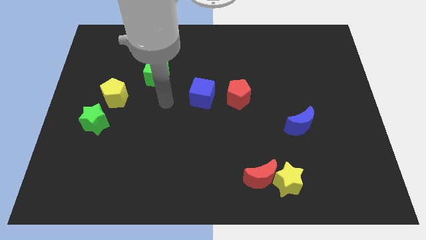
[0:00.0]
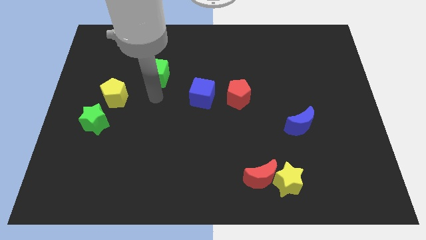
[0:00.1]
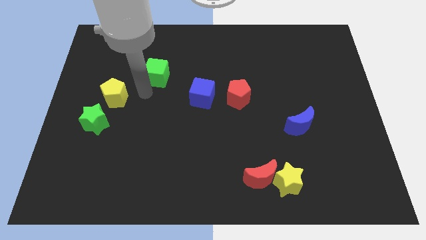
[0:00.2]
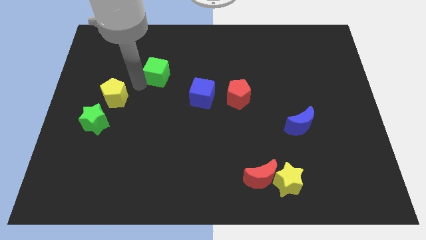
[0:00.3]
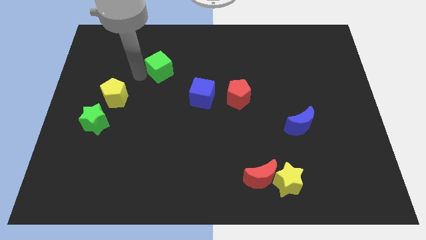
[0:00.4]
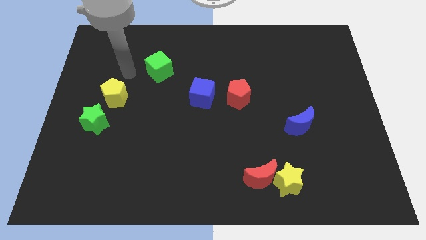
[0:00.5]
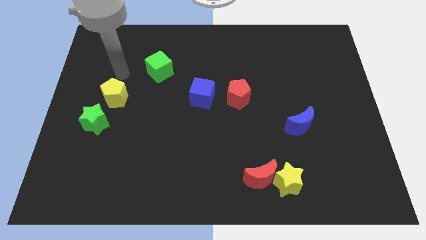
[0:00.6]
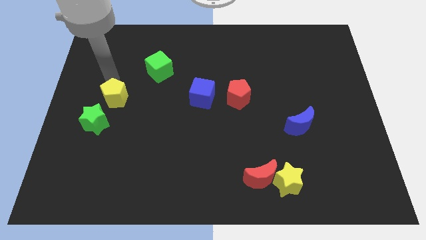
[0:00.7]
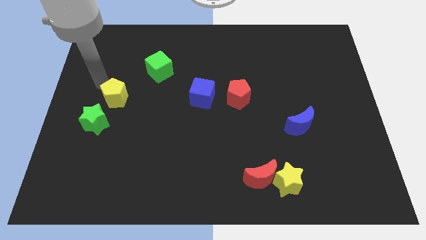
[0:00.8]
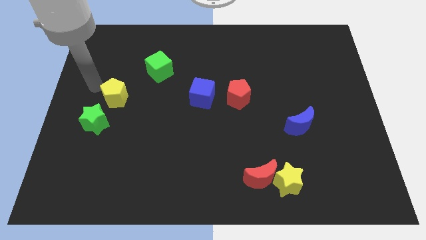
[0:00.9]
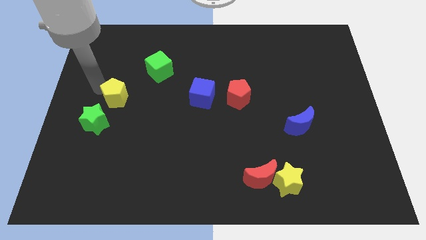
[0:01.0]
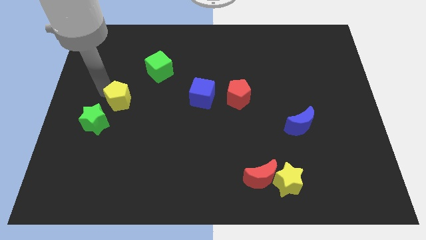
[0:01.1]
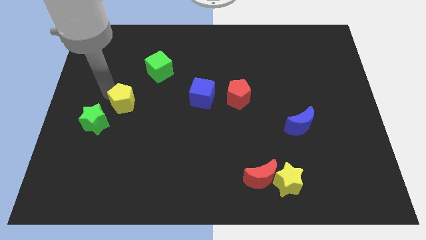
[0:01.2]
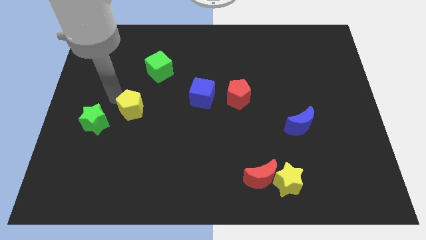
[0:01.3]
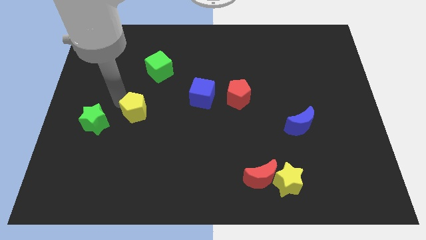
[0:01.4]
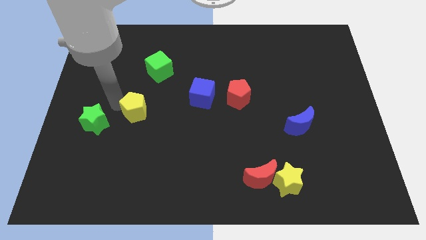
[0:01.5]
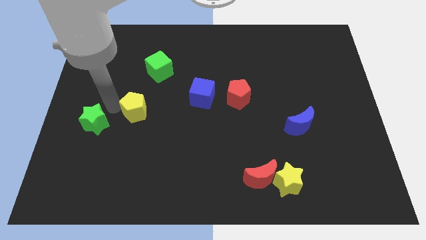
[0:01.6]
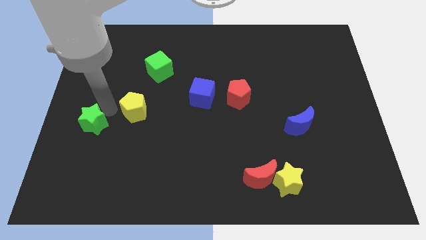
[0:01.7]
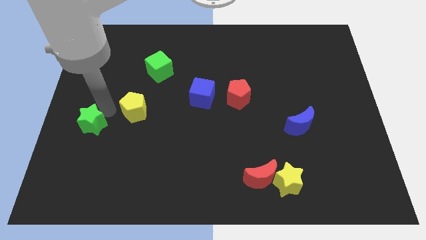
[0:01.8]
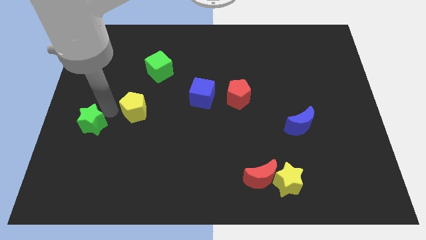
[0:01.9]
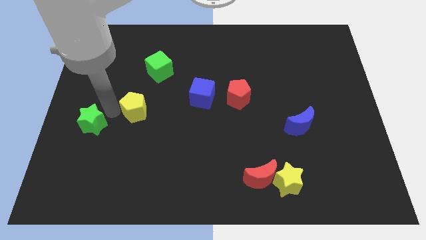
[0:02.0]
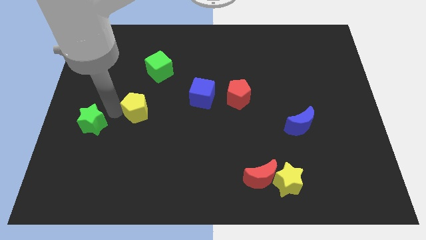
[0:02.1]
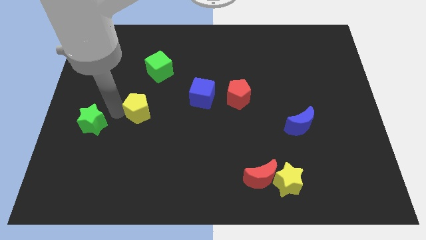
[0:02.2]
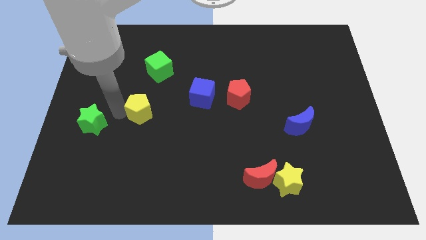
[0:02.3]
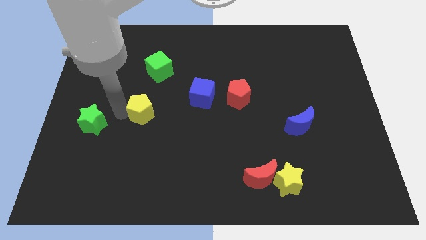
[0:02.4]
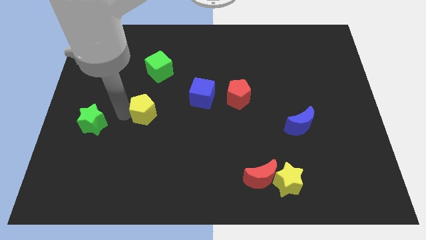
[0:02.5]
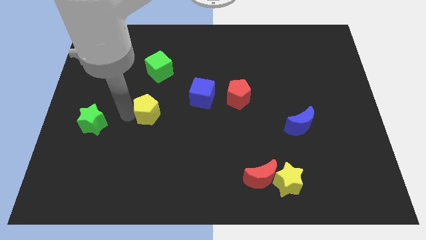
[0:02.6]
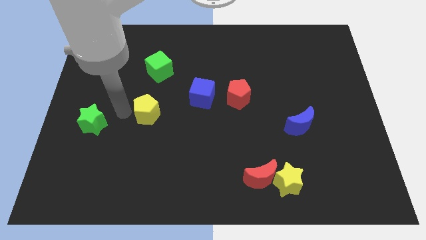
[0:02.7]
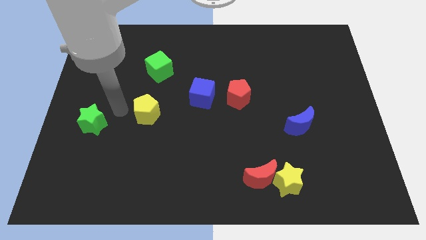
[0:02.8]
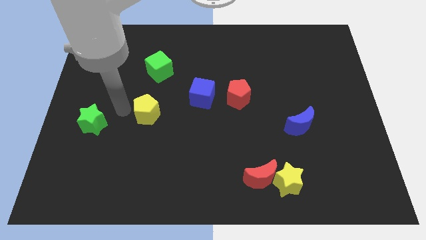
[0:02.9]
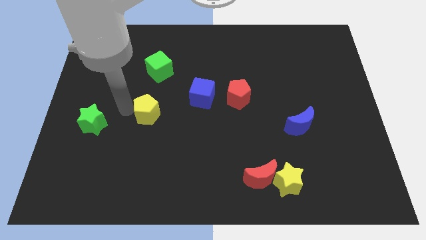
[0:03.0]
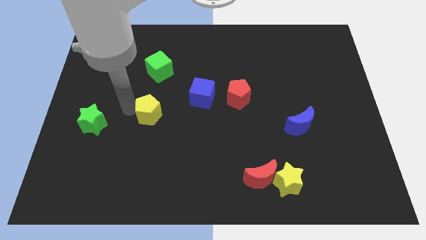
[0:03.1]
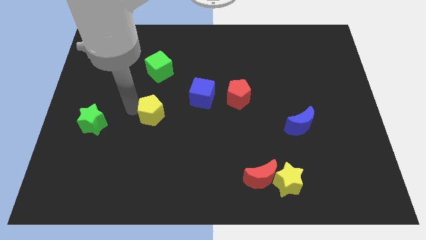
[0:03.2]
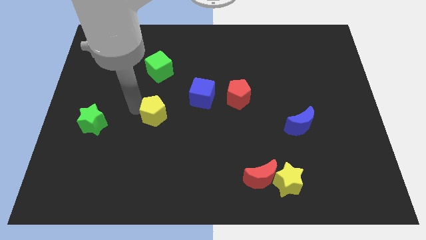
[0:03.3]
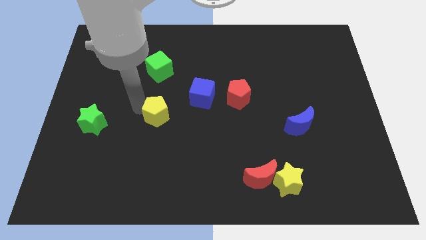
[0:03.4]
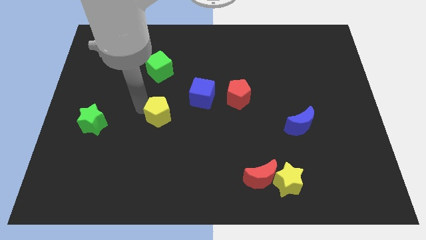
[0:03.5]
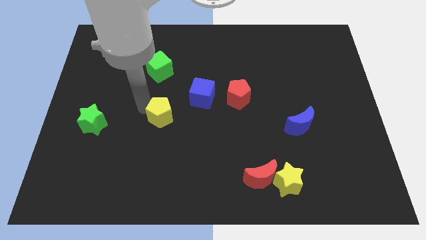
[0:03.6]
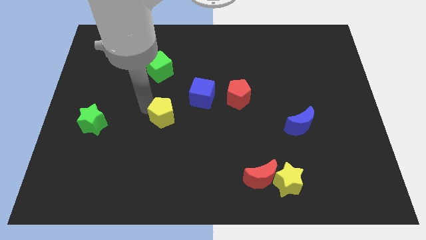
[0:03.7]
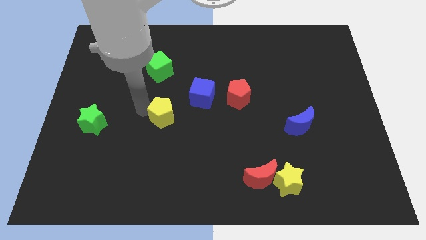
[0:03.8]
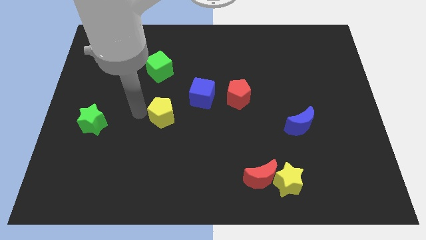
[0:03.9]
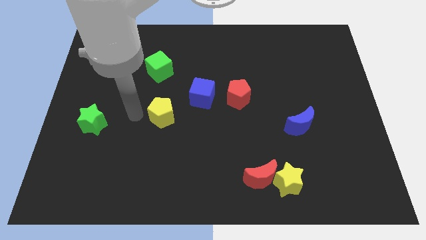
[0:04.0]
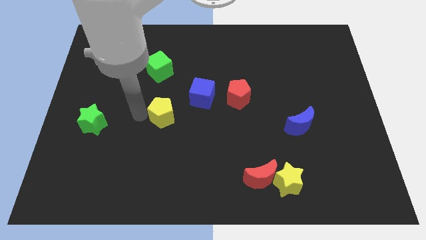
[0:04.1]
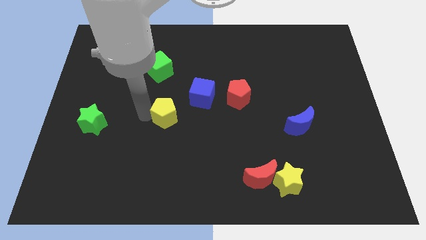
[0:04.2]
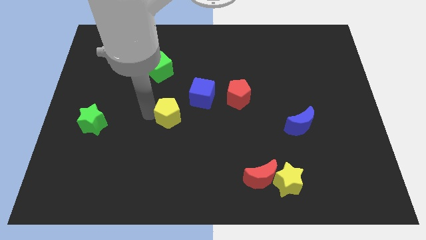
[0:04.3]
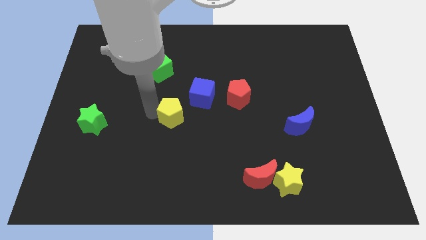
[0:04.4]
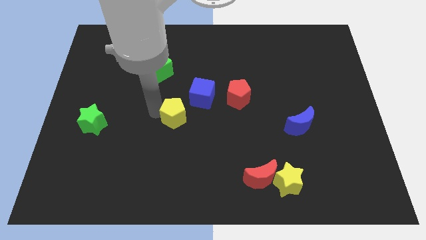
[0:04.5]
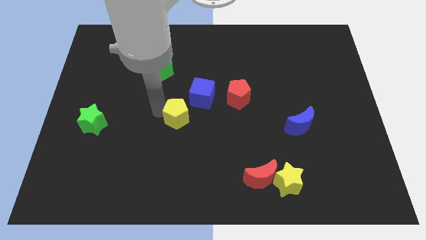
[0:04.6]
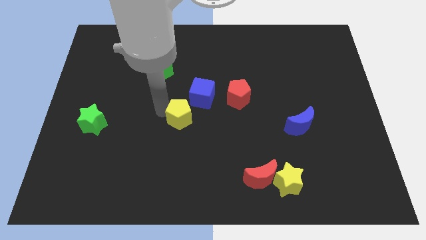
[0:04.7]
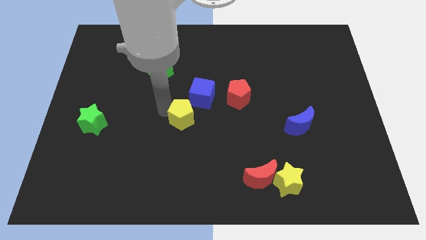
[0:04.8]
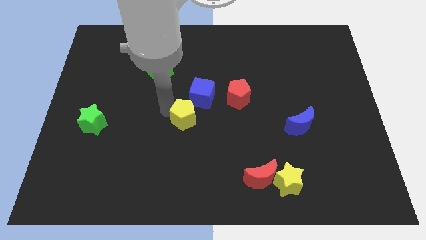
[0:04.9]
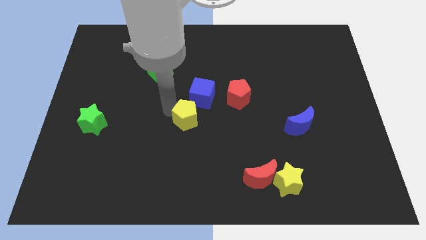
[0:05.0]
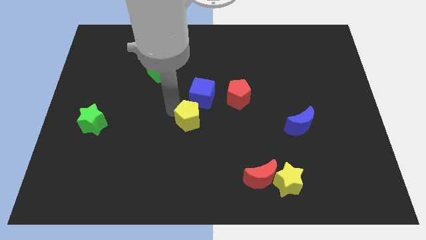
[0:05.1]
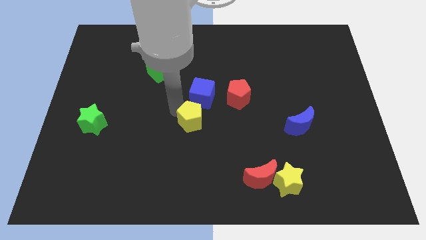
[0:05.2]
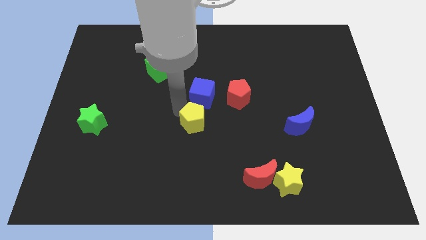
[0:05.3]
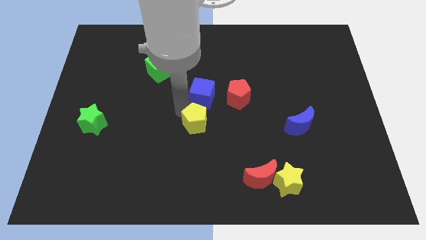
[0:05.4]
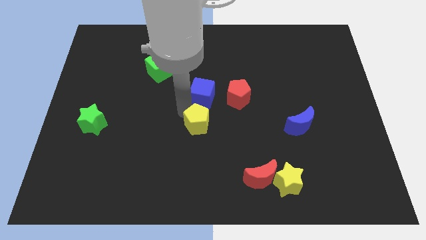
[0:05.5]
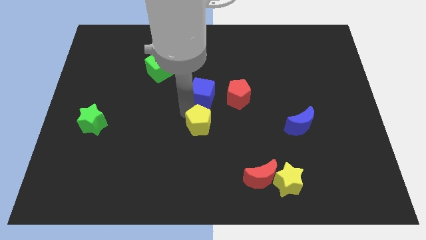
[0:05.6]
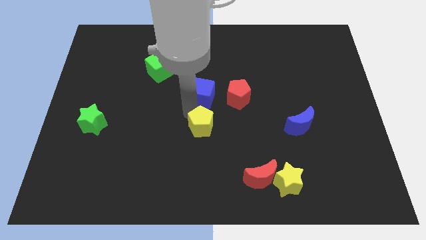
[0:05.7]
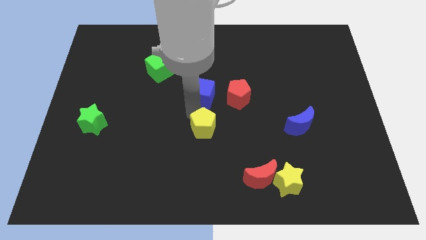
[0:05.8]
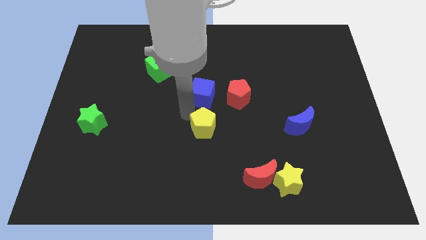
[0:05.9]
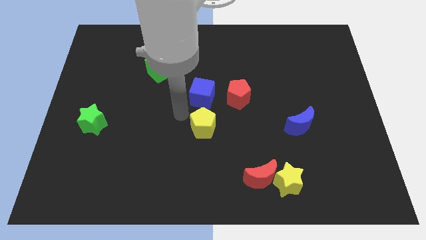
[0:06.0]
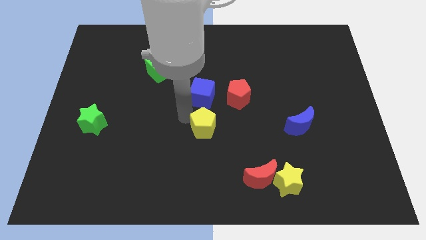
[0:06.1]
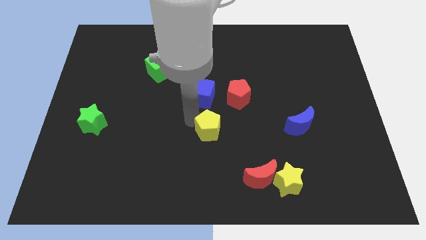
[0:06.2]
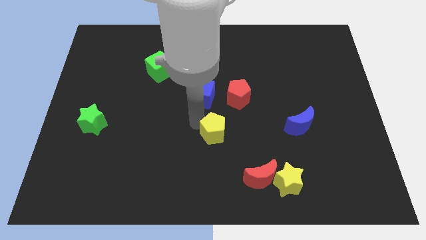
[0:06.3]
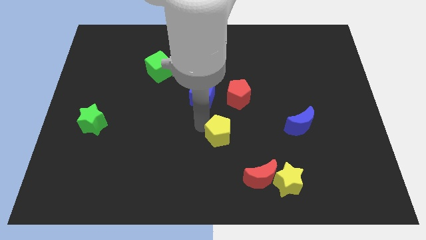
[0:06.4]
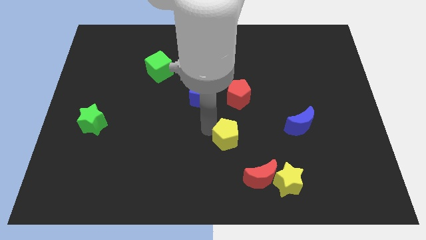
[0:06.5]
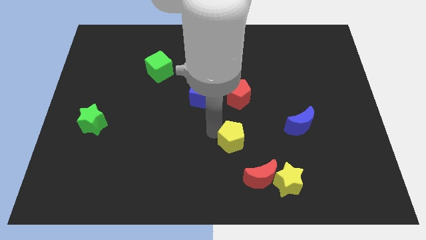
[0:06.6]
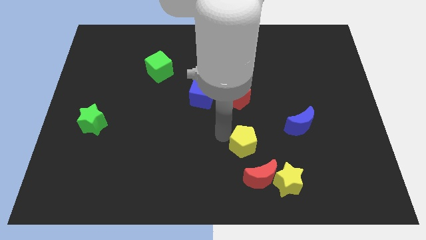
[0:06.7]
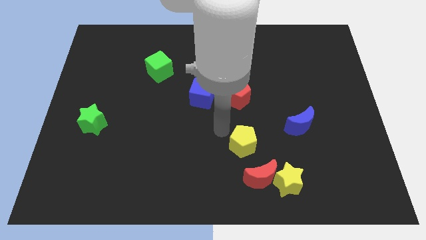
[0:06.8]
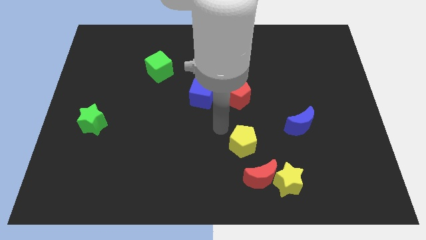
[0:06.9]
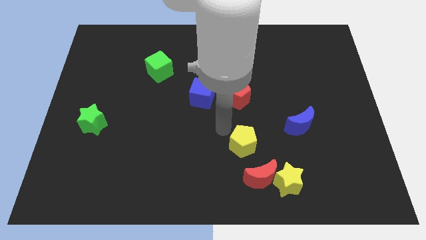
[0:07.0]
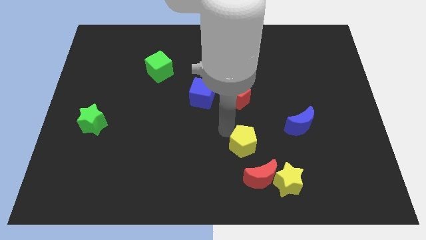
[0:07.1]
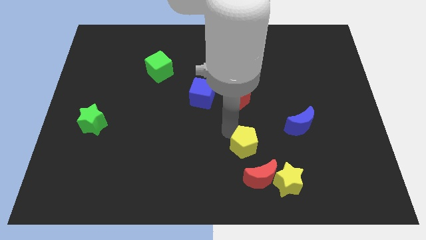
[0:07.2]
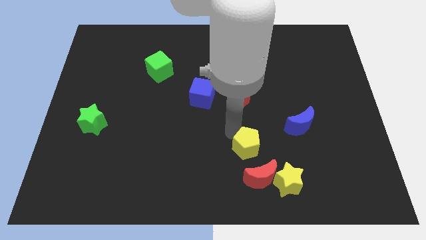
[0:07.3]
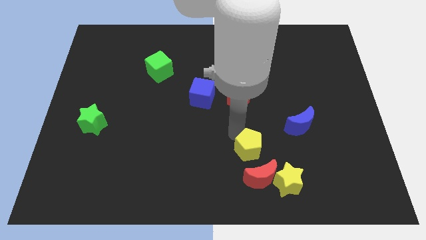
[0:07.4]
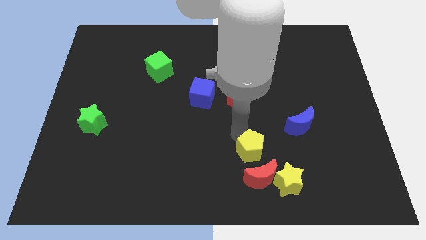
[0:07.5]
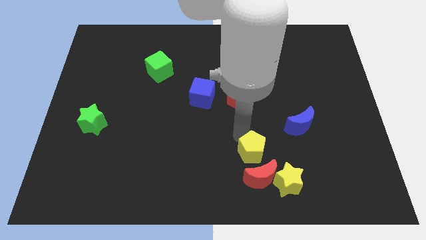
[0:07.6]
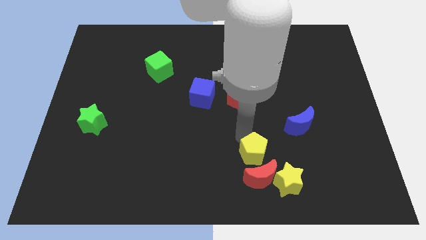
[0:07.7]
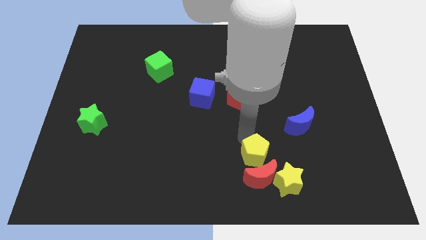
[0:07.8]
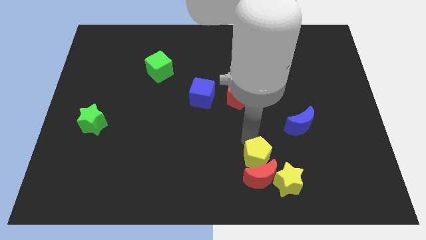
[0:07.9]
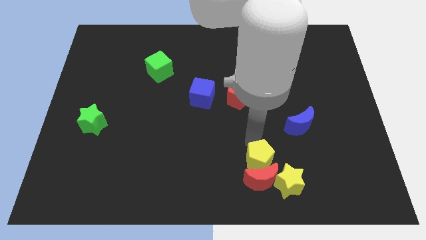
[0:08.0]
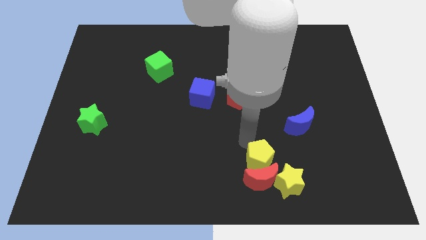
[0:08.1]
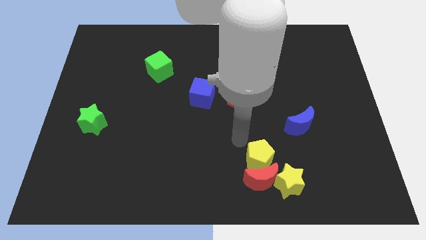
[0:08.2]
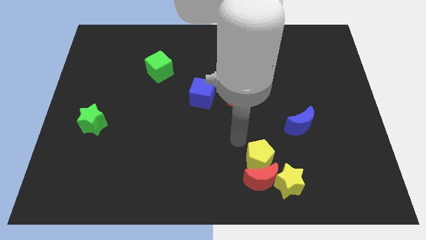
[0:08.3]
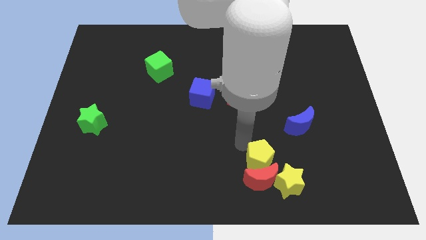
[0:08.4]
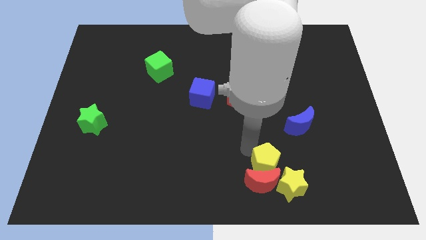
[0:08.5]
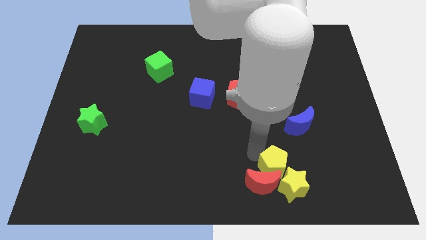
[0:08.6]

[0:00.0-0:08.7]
slide the yellow pentagon to the yellow star
